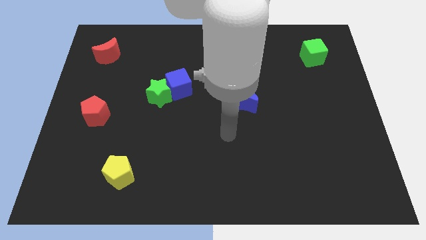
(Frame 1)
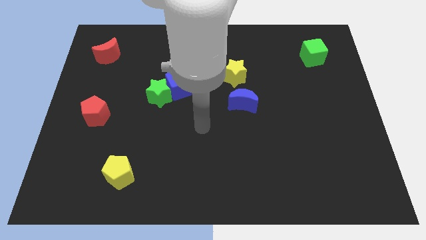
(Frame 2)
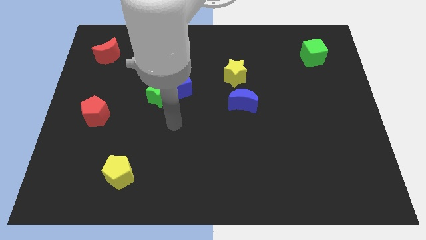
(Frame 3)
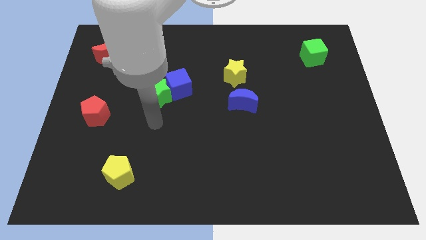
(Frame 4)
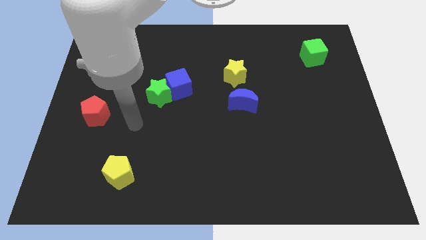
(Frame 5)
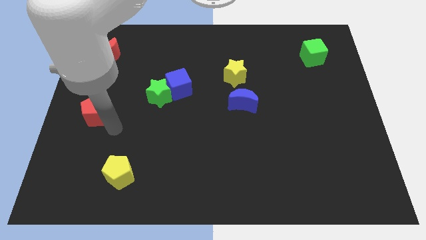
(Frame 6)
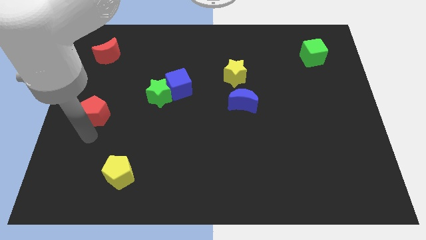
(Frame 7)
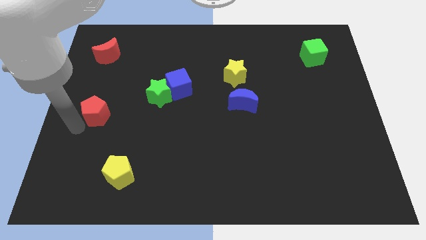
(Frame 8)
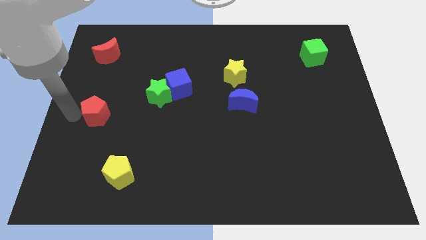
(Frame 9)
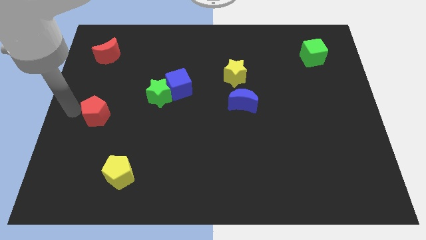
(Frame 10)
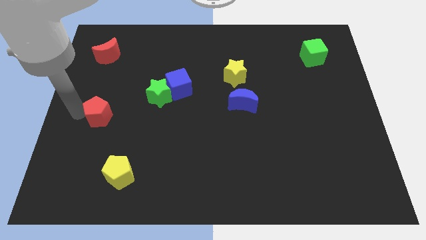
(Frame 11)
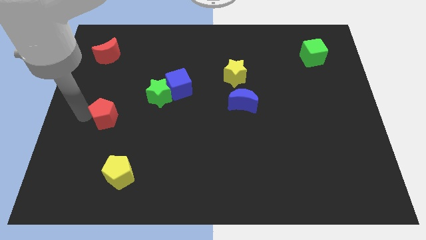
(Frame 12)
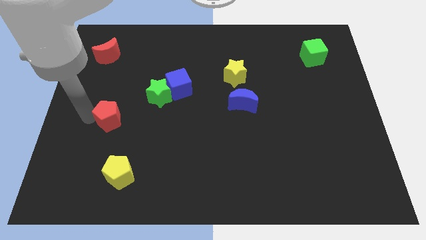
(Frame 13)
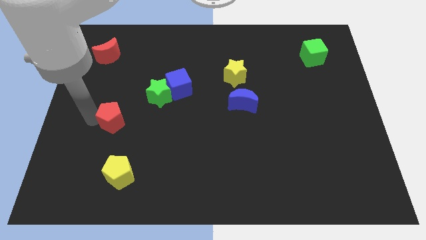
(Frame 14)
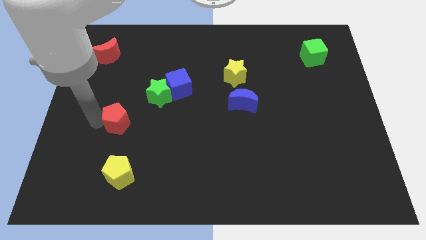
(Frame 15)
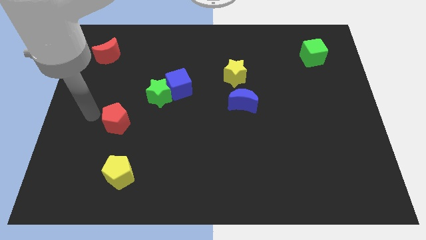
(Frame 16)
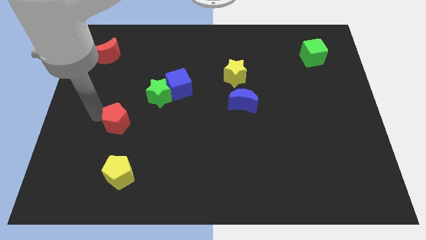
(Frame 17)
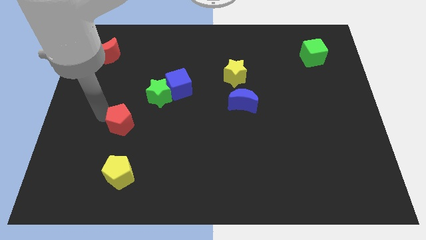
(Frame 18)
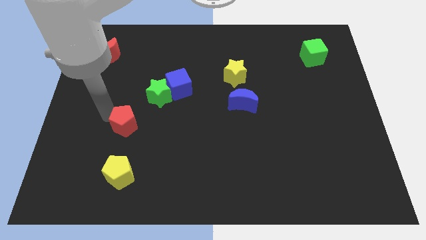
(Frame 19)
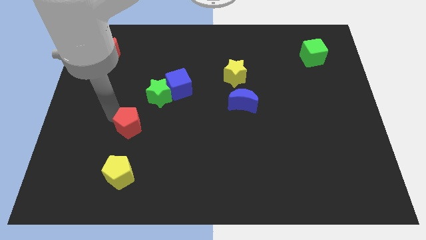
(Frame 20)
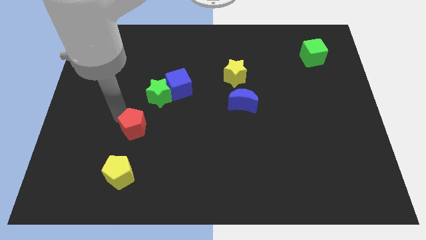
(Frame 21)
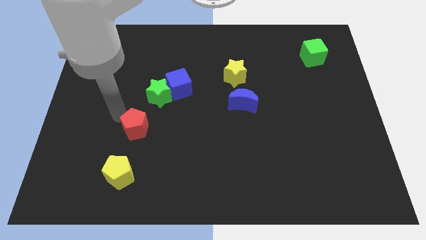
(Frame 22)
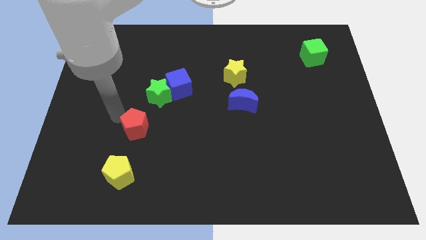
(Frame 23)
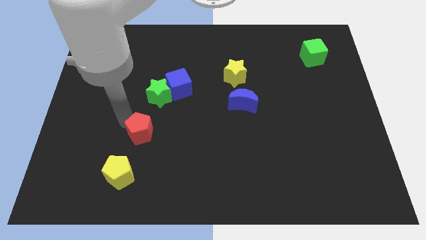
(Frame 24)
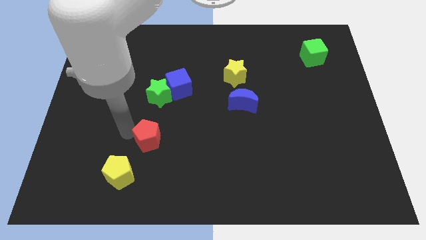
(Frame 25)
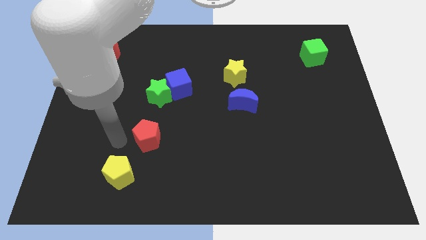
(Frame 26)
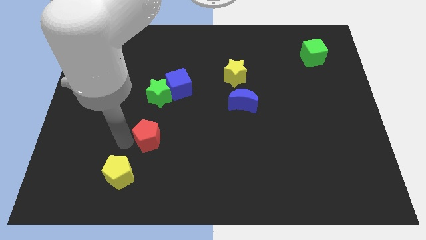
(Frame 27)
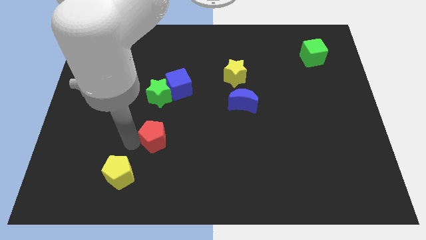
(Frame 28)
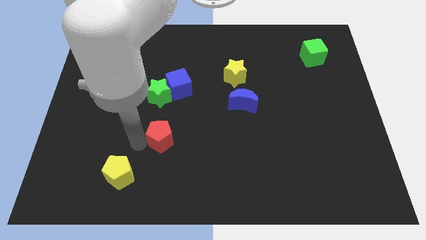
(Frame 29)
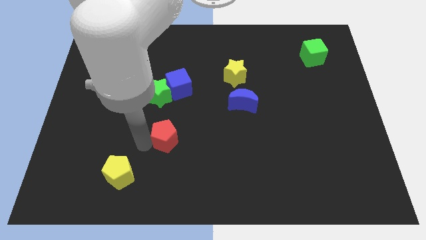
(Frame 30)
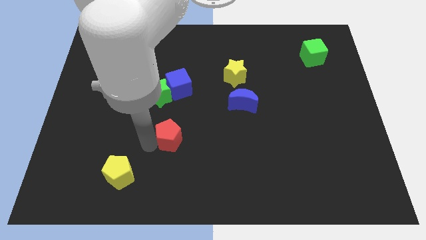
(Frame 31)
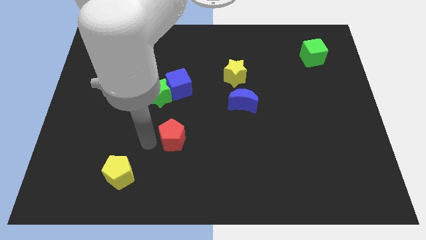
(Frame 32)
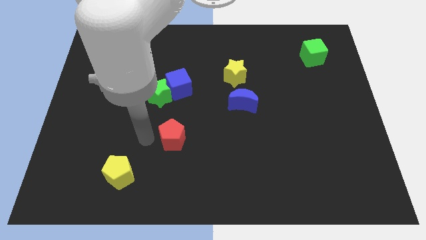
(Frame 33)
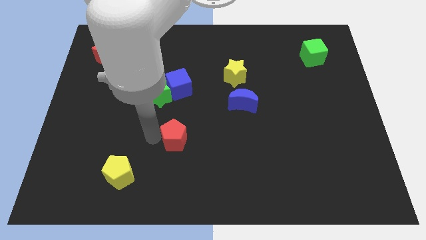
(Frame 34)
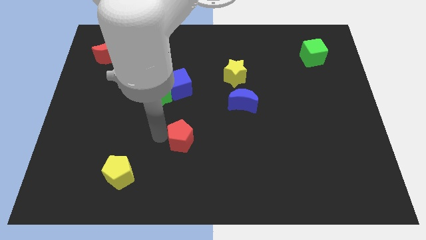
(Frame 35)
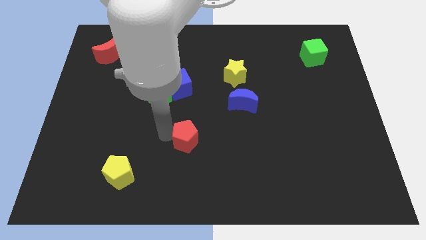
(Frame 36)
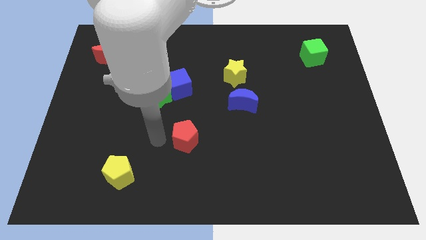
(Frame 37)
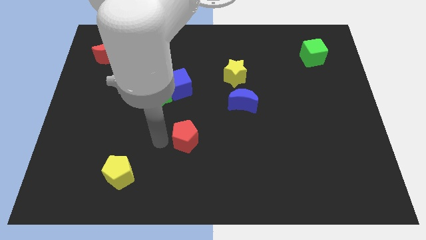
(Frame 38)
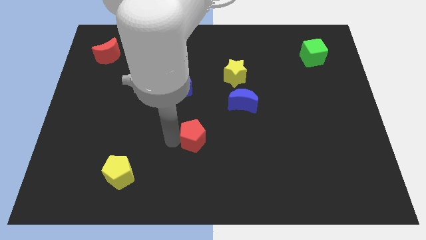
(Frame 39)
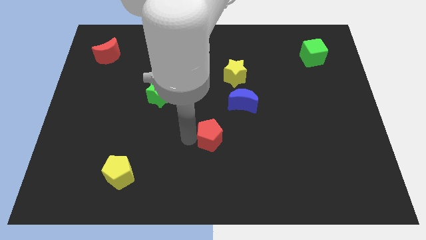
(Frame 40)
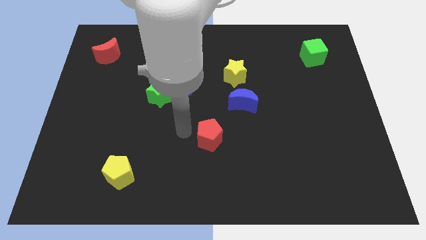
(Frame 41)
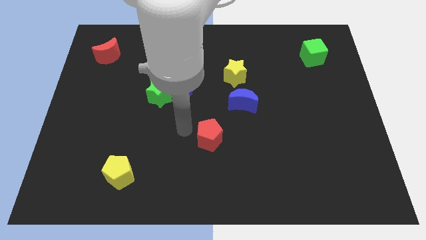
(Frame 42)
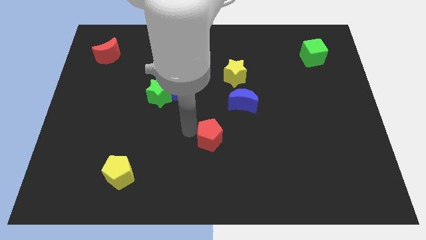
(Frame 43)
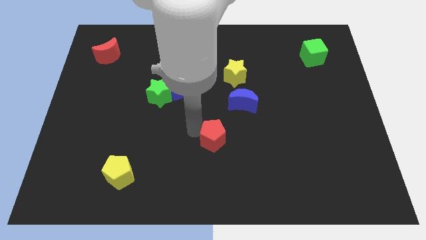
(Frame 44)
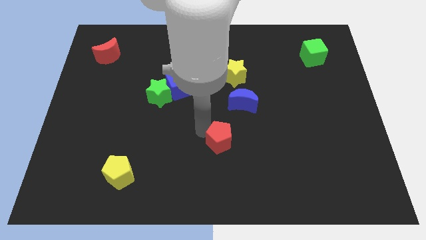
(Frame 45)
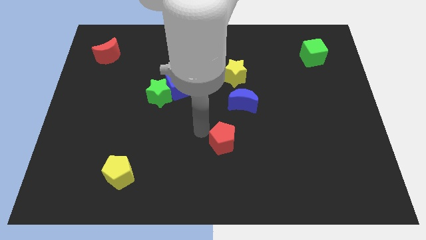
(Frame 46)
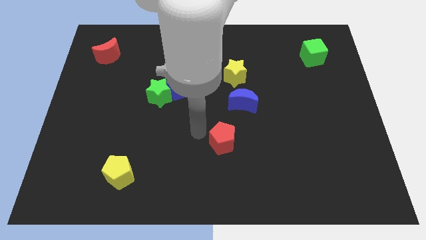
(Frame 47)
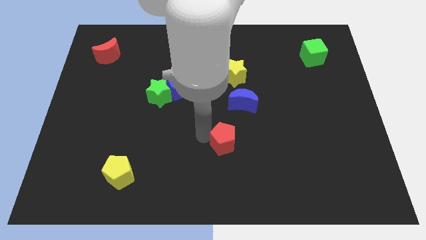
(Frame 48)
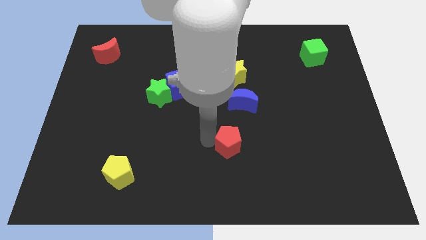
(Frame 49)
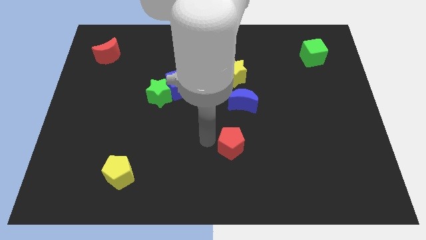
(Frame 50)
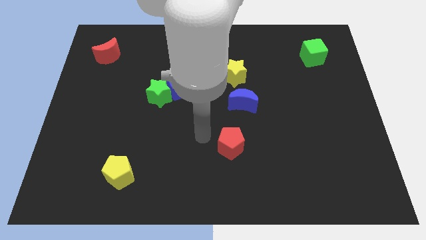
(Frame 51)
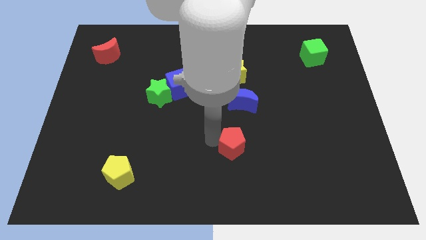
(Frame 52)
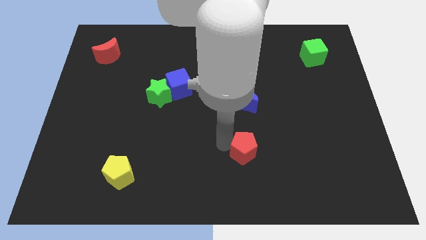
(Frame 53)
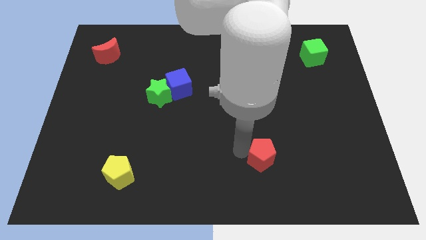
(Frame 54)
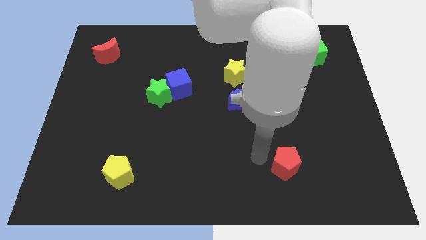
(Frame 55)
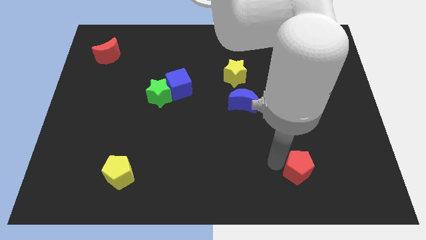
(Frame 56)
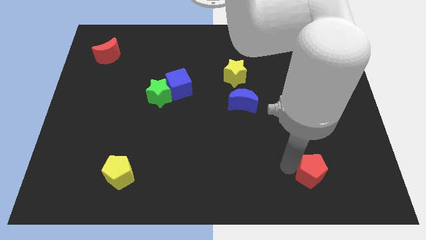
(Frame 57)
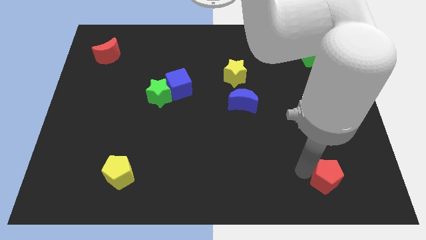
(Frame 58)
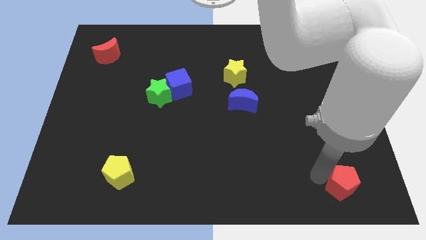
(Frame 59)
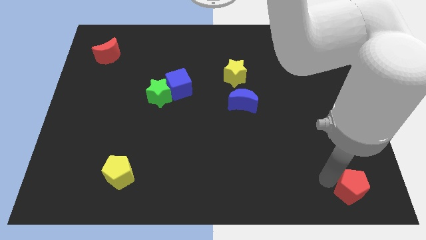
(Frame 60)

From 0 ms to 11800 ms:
move the red pentagon to the lower right corner
